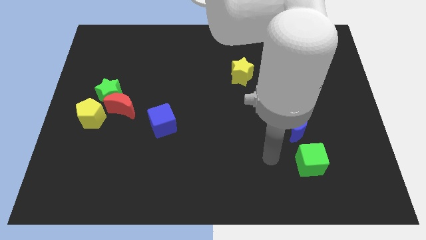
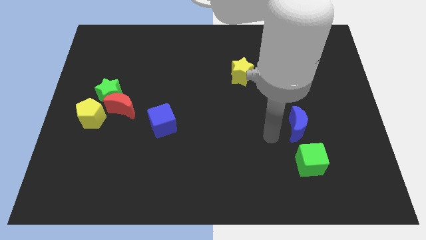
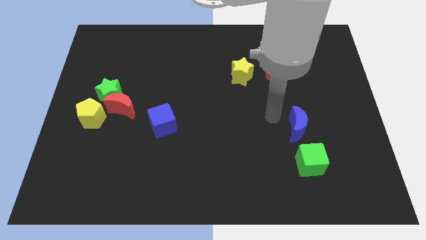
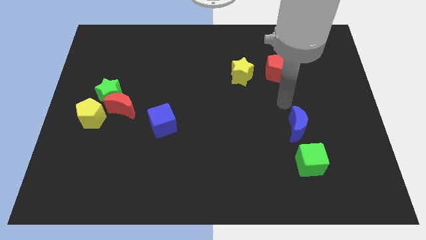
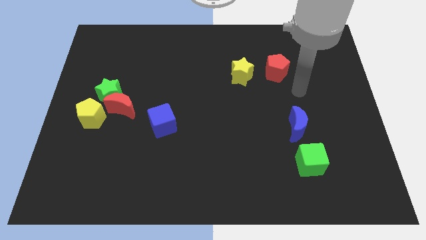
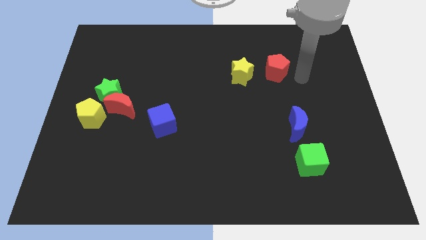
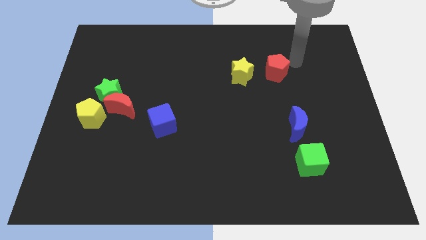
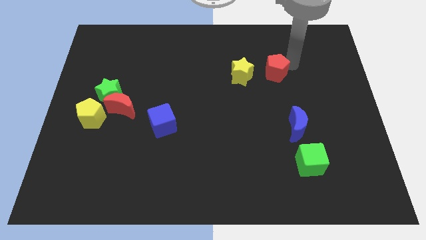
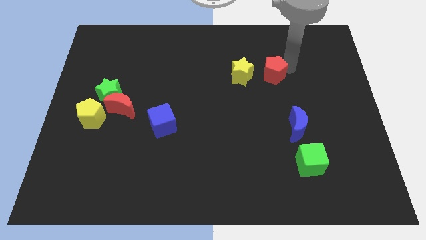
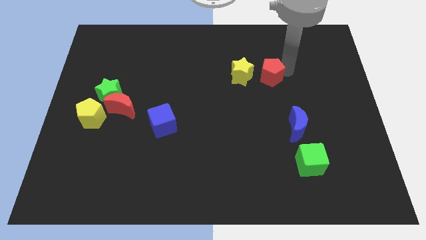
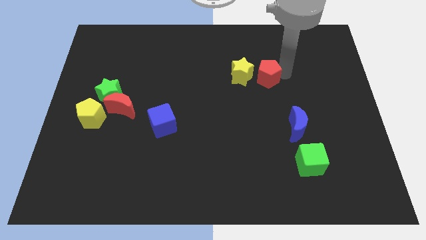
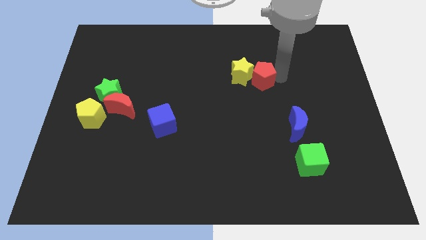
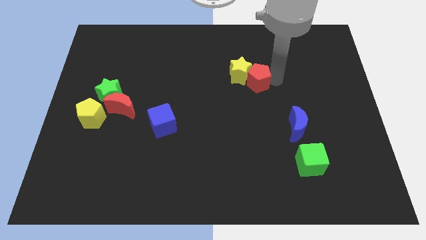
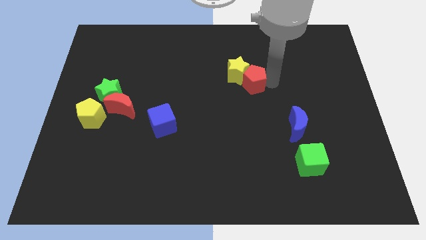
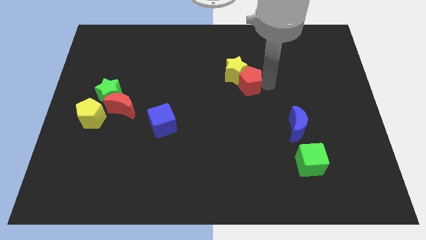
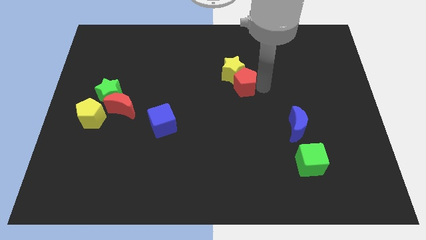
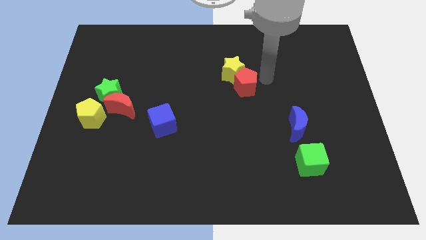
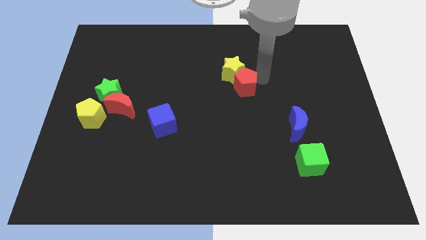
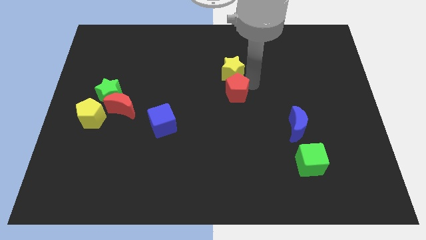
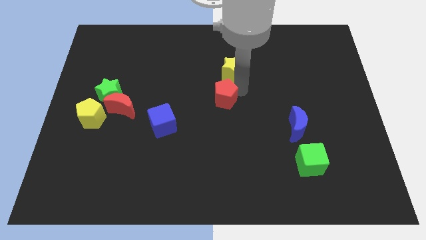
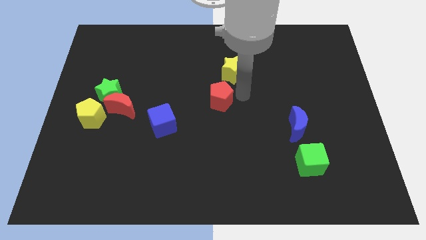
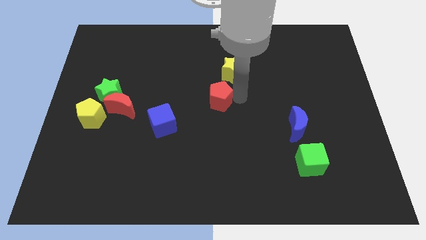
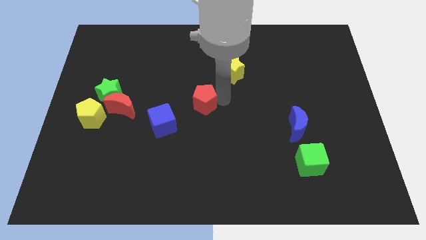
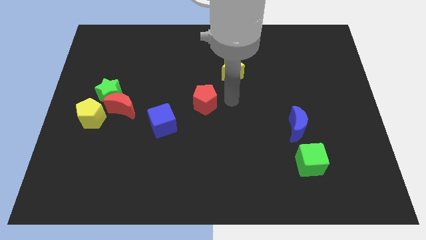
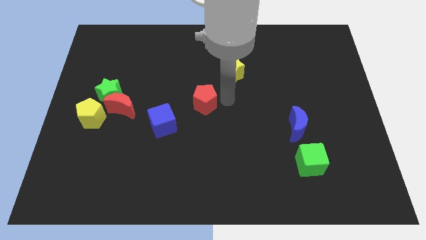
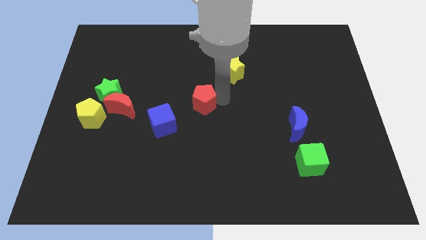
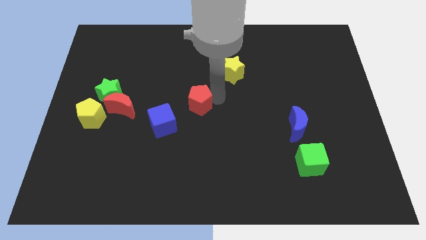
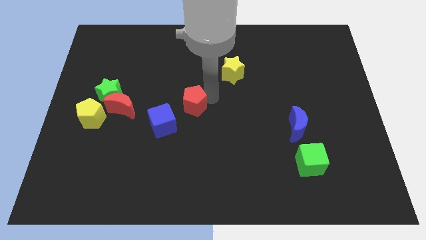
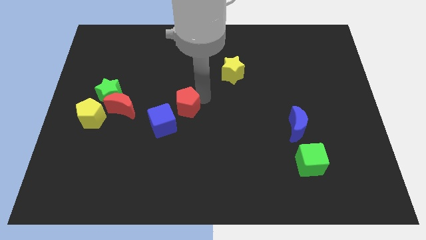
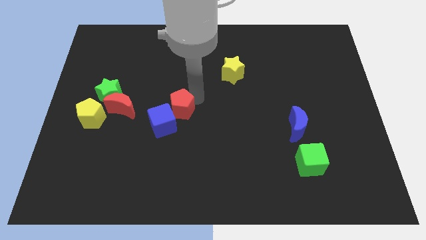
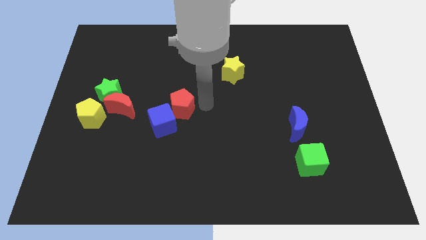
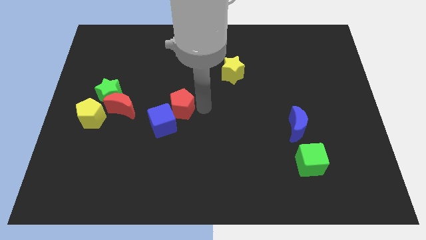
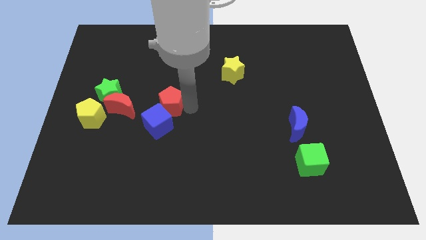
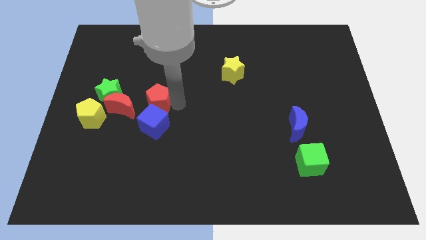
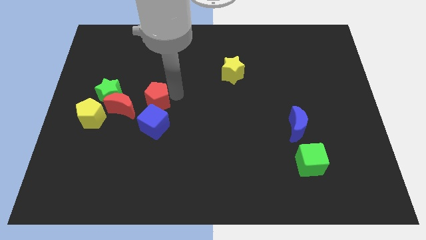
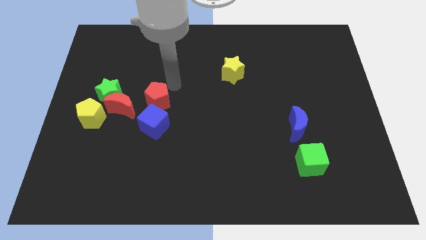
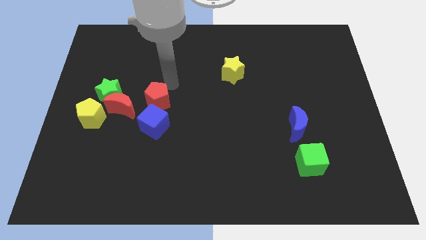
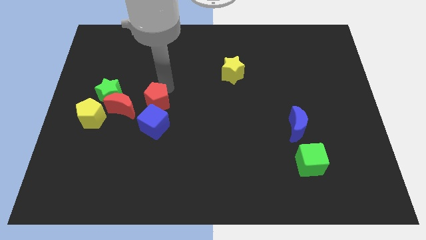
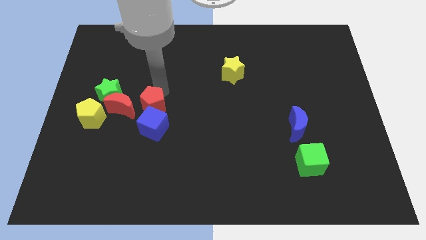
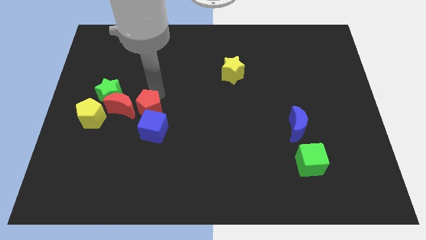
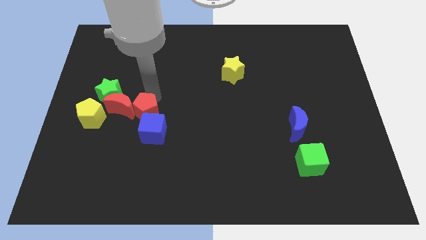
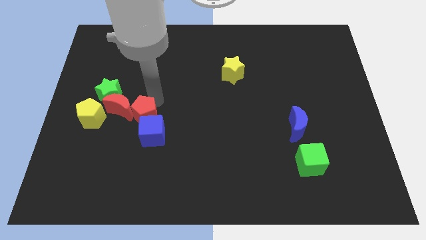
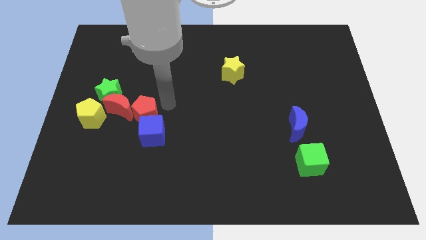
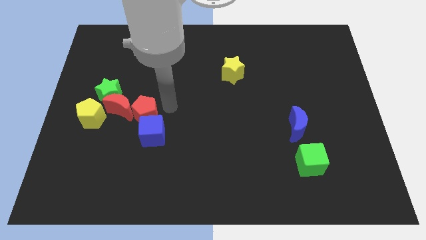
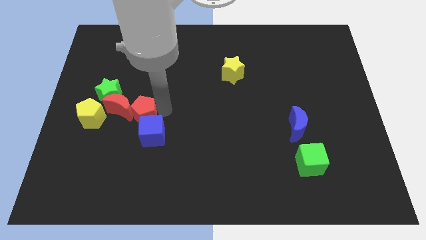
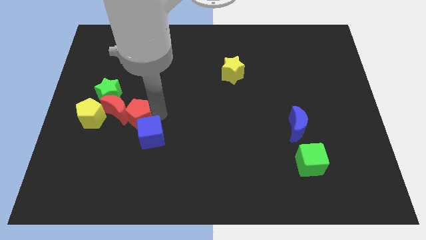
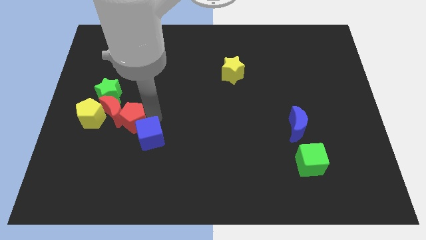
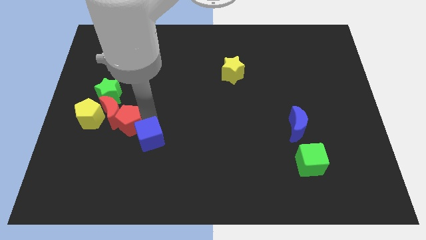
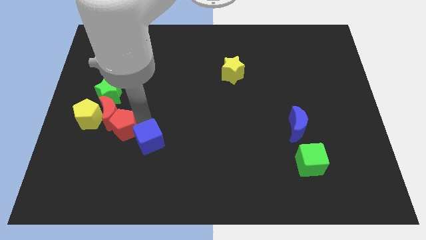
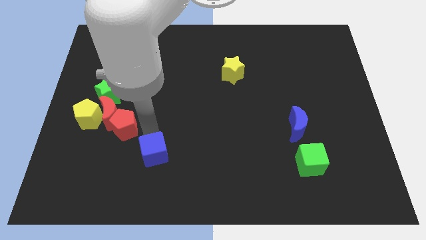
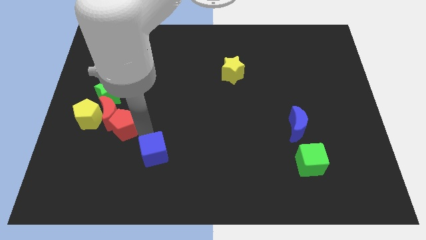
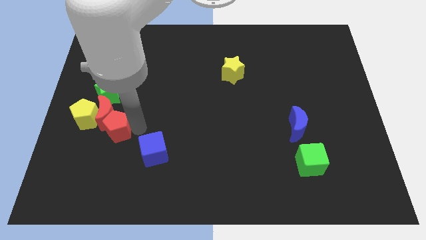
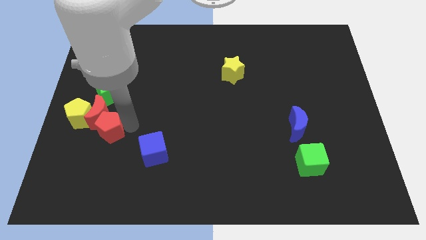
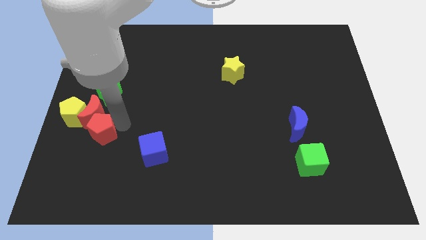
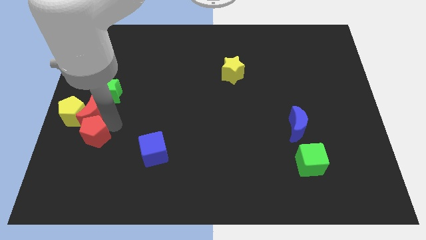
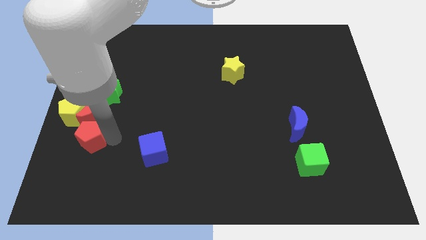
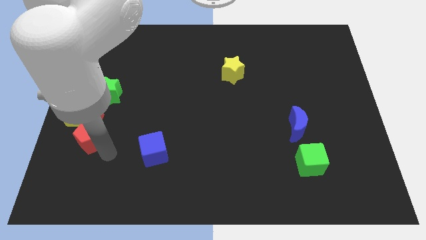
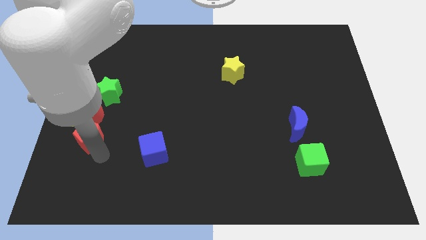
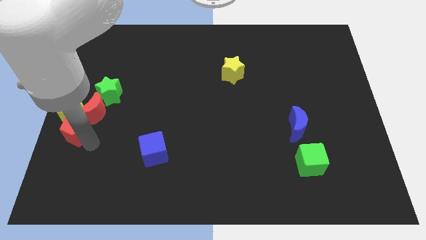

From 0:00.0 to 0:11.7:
put the red pentagon towards the yellow pentagon

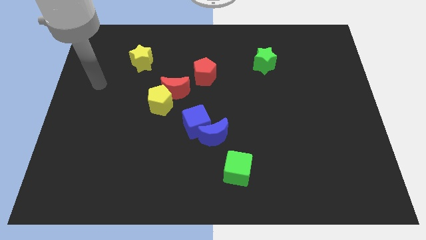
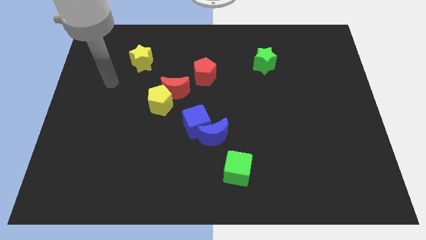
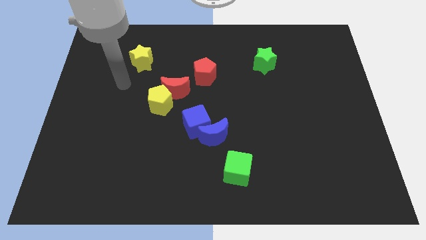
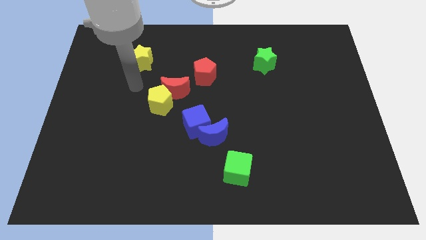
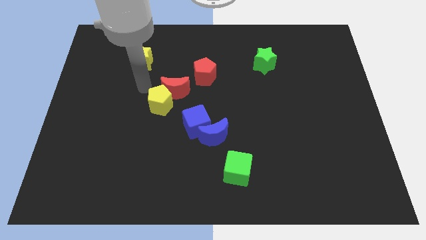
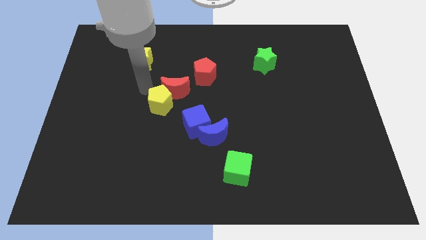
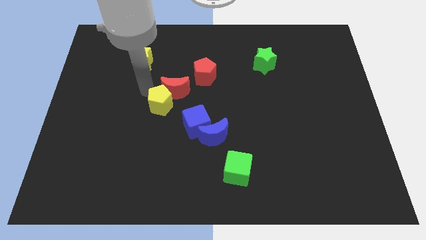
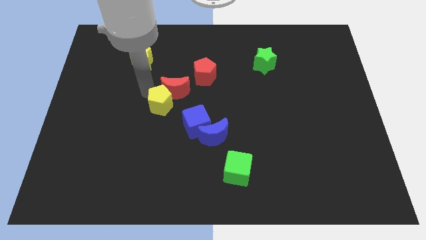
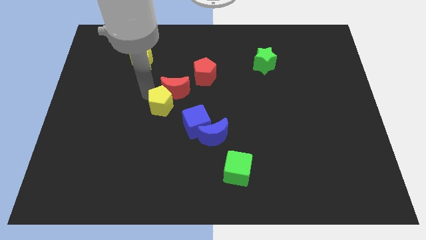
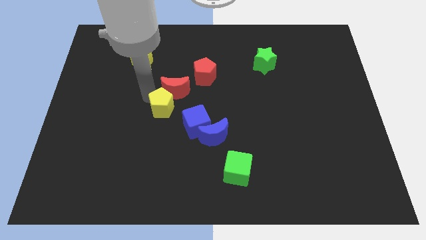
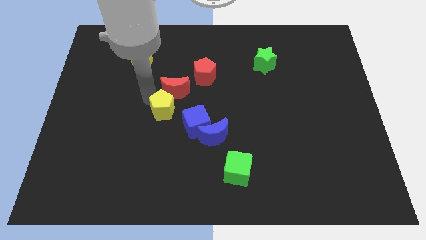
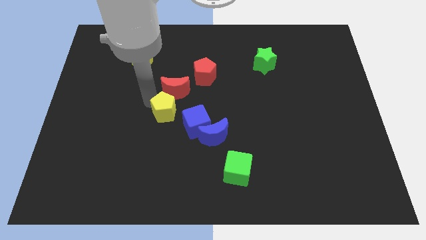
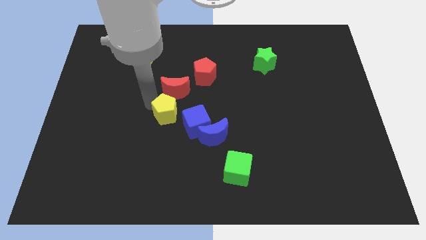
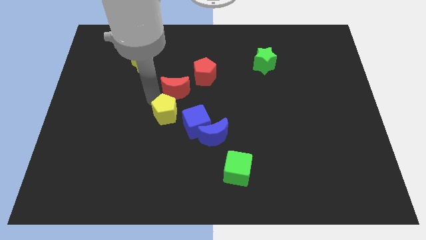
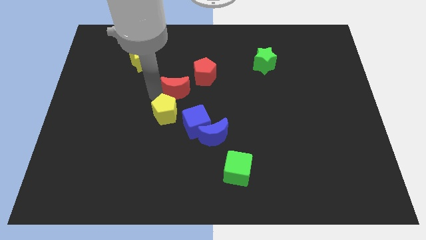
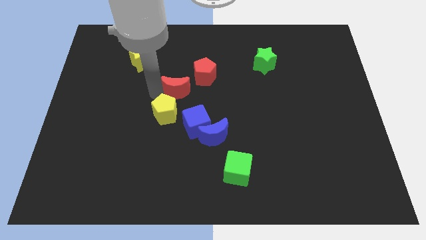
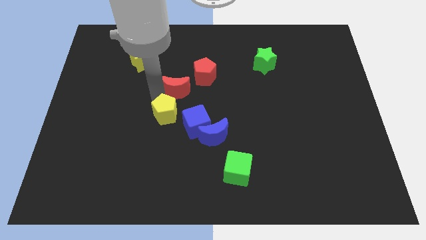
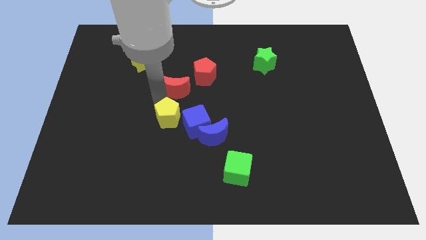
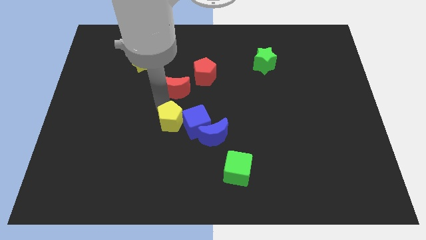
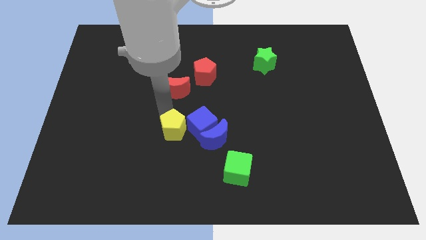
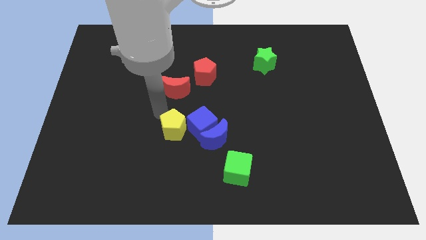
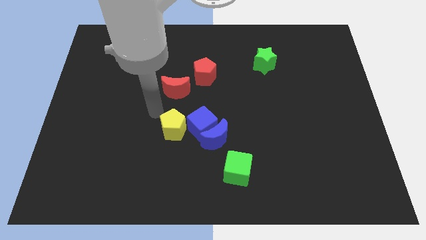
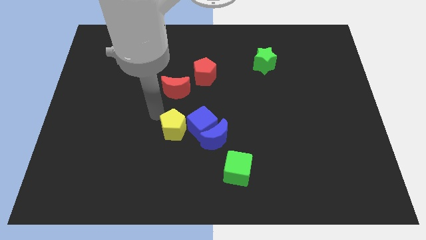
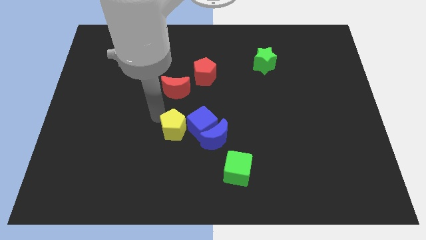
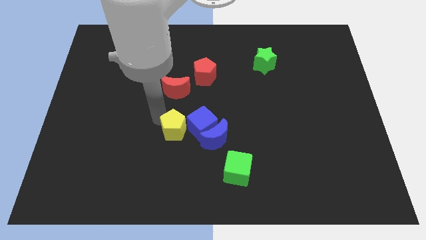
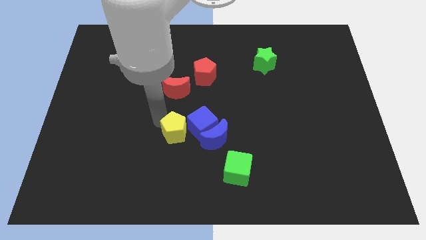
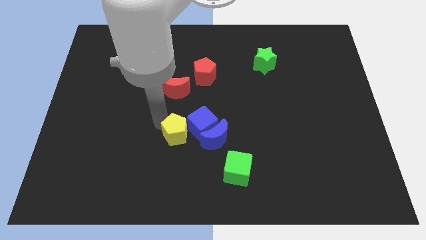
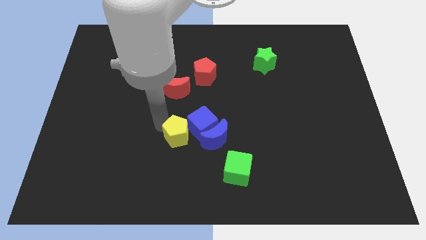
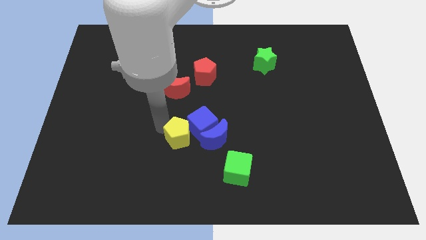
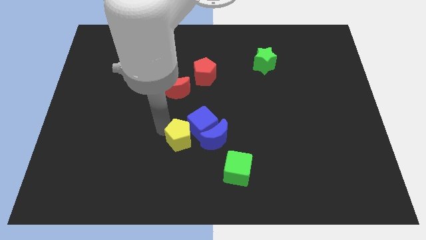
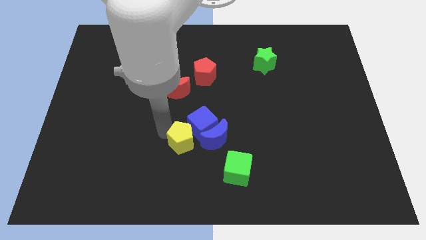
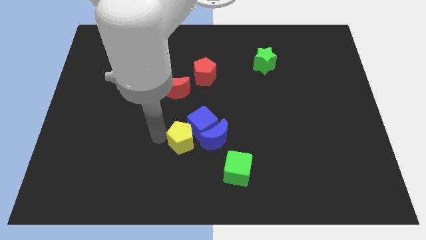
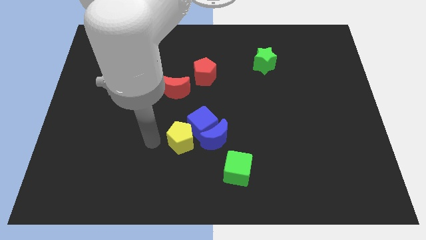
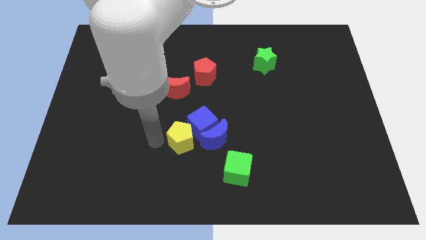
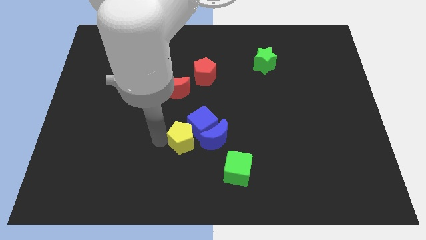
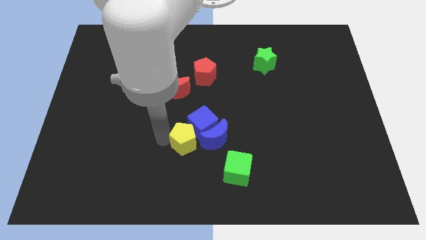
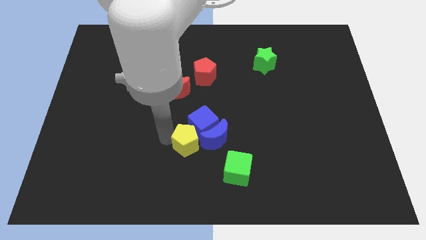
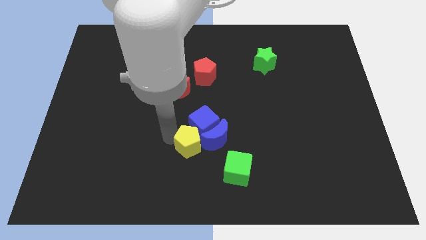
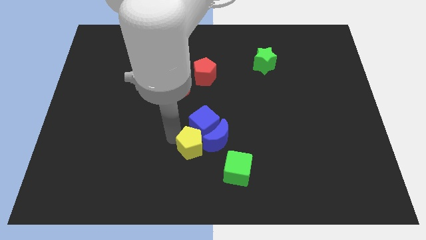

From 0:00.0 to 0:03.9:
move the yellow pentagon close to the blue moon
